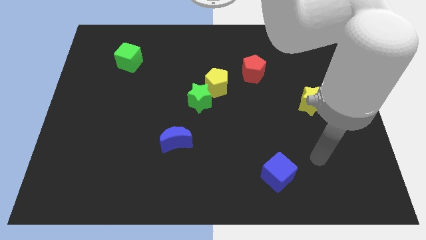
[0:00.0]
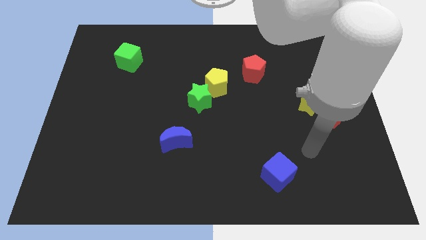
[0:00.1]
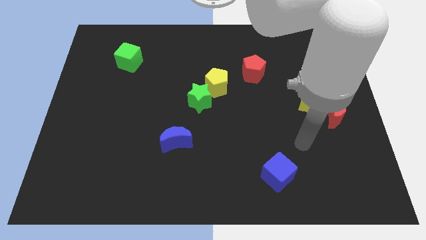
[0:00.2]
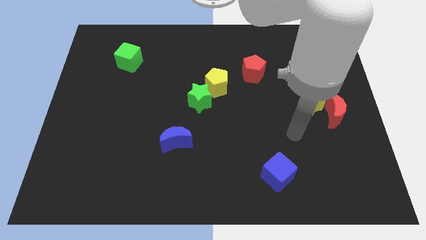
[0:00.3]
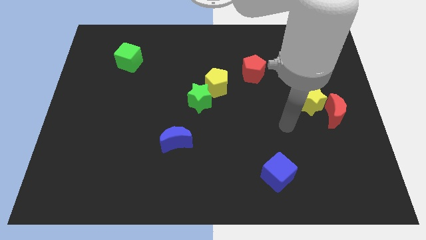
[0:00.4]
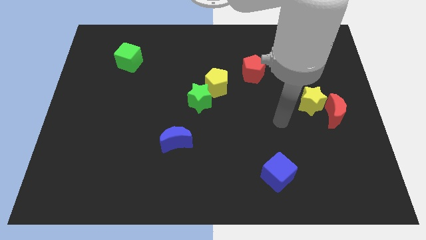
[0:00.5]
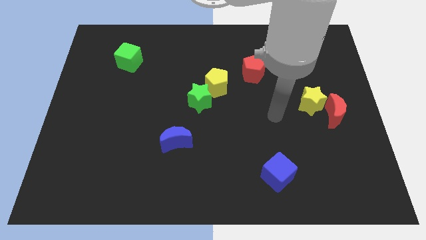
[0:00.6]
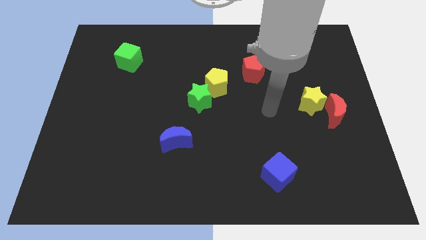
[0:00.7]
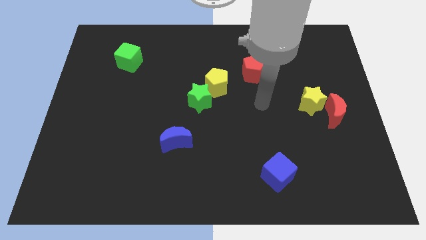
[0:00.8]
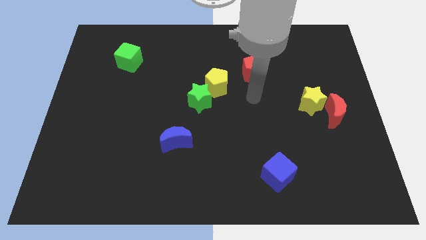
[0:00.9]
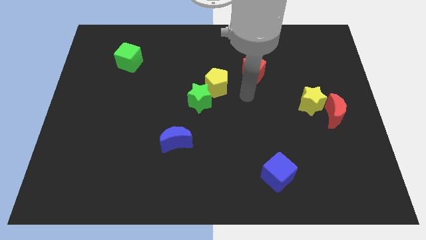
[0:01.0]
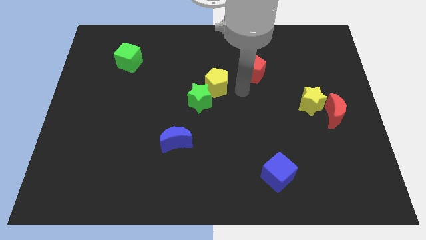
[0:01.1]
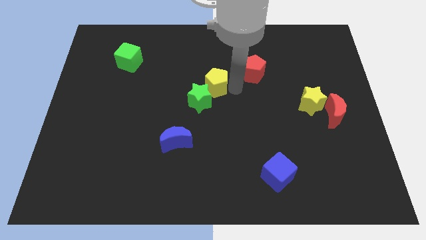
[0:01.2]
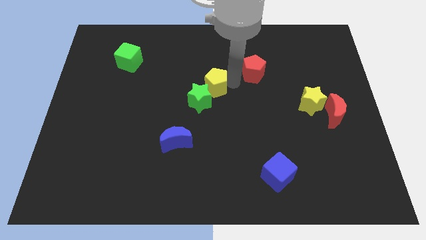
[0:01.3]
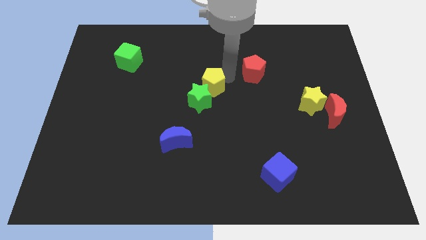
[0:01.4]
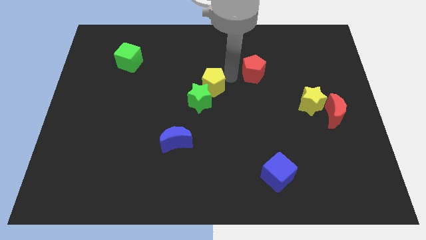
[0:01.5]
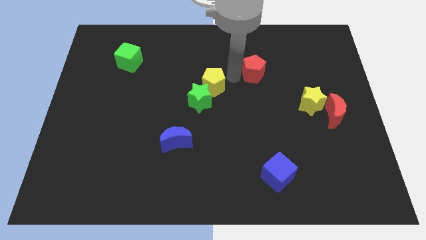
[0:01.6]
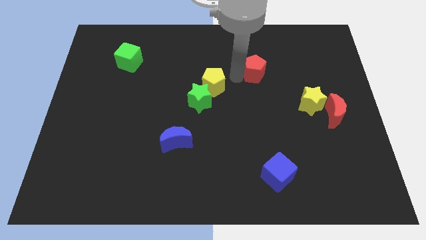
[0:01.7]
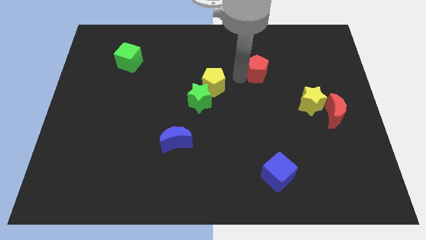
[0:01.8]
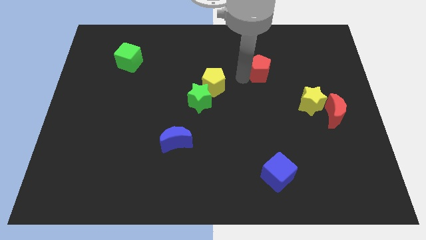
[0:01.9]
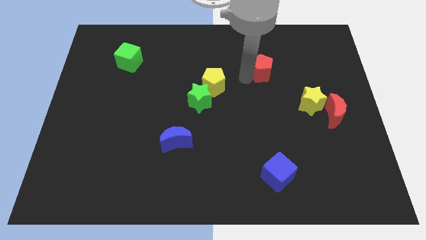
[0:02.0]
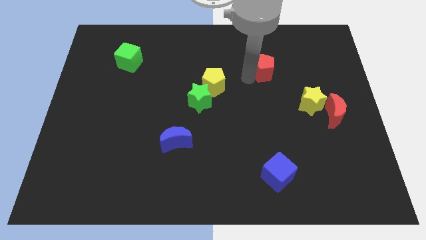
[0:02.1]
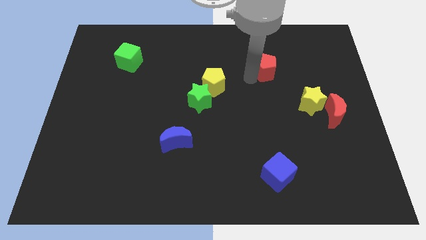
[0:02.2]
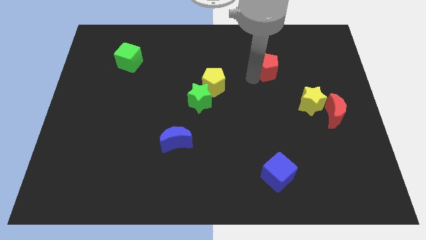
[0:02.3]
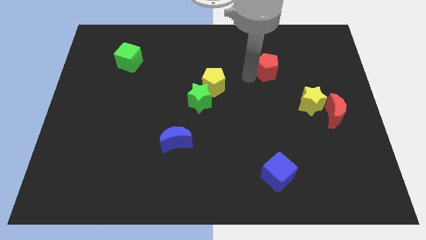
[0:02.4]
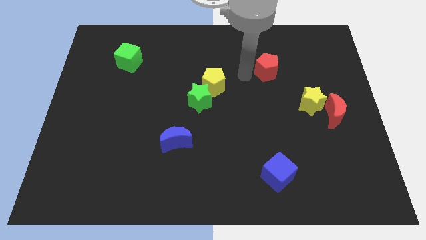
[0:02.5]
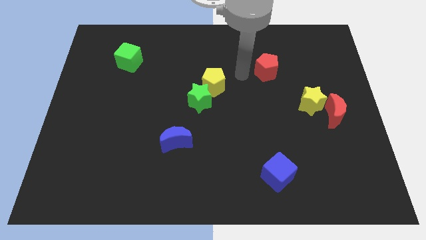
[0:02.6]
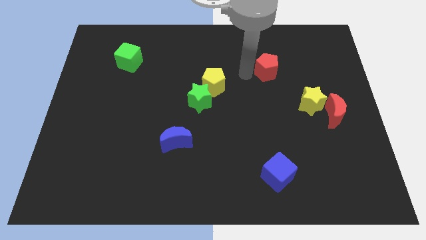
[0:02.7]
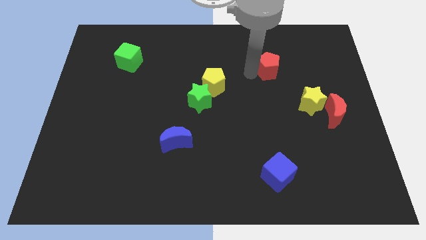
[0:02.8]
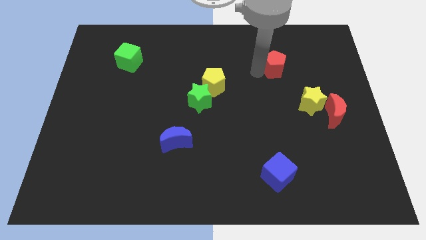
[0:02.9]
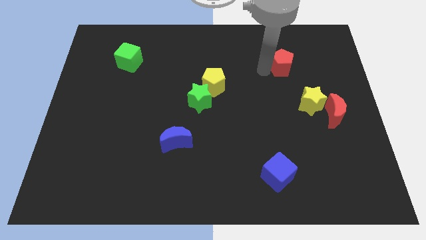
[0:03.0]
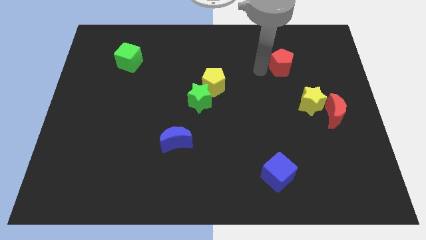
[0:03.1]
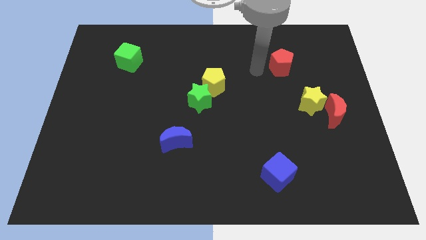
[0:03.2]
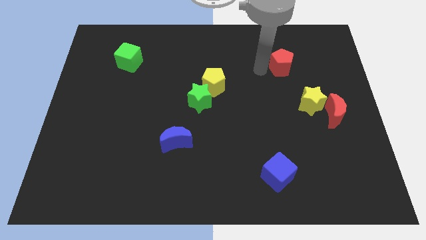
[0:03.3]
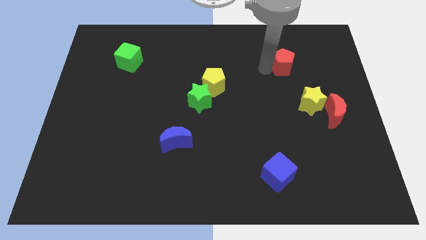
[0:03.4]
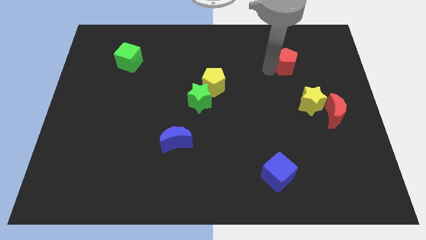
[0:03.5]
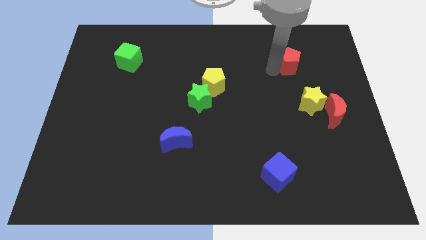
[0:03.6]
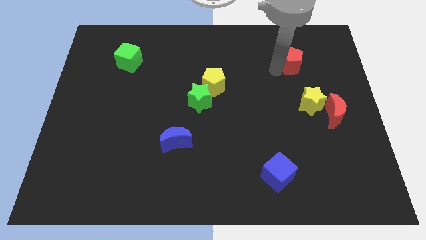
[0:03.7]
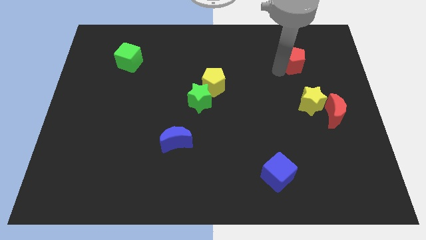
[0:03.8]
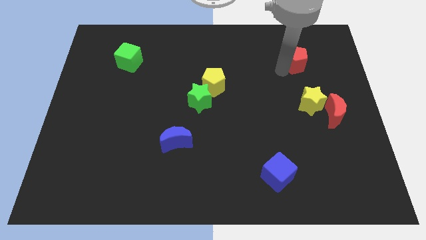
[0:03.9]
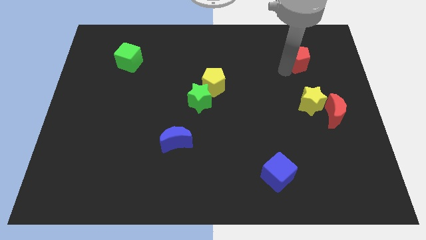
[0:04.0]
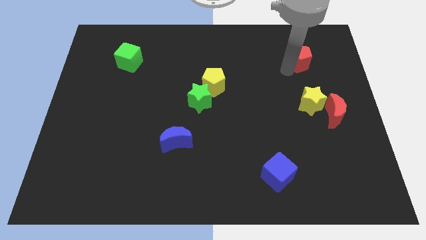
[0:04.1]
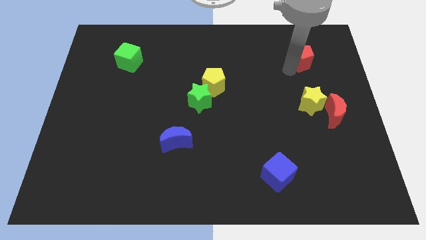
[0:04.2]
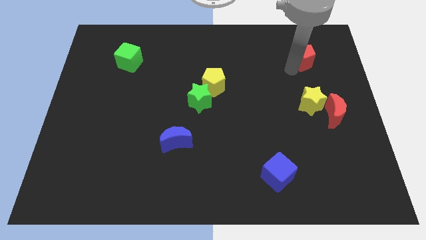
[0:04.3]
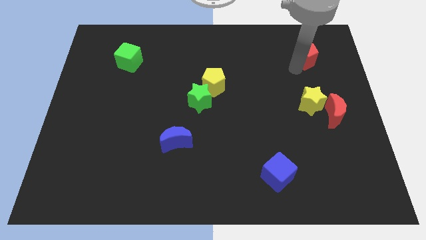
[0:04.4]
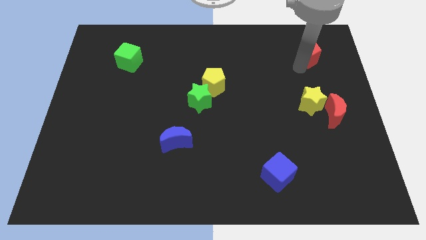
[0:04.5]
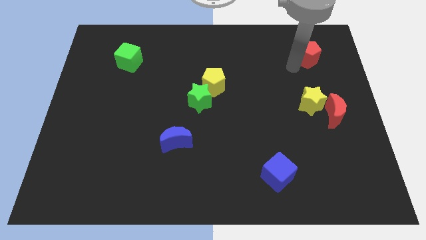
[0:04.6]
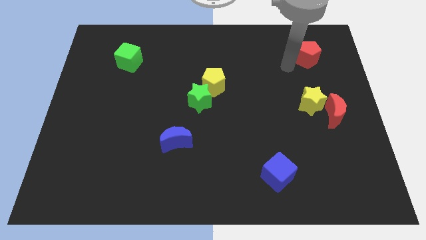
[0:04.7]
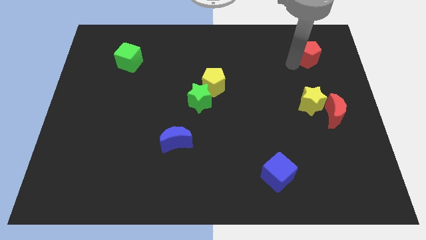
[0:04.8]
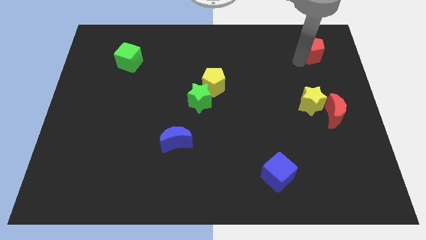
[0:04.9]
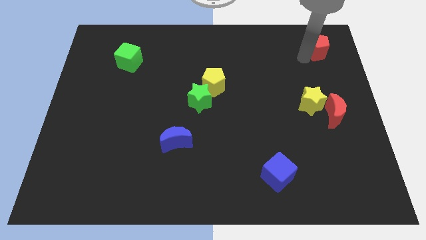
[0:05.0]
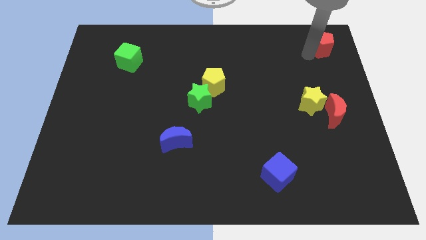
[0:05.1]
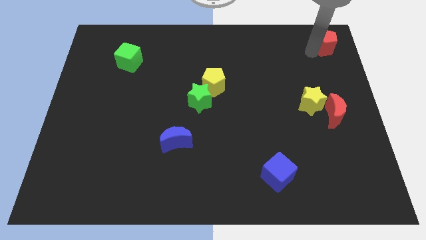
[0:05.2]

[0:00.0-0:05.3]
push the red pentagon to the top right of the board

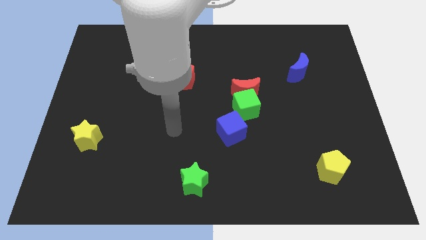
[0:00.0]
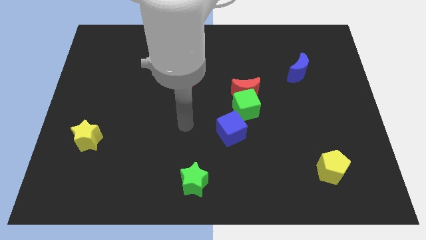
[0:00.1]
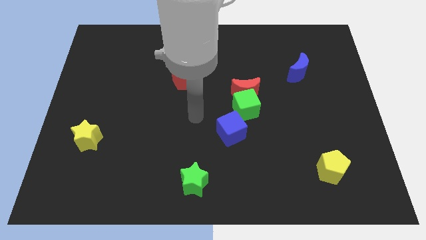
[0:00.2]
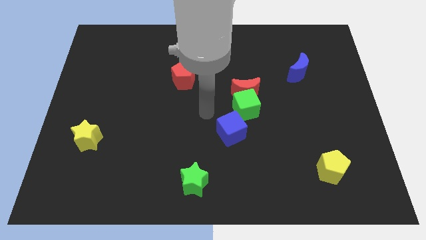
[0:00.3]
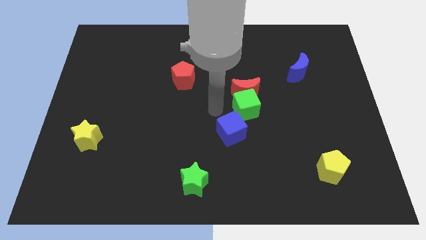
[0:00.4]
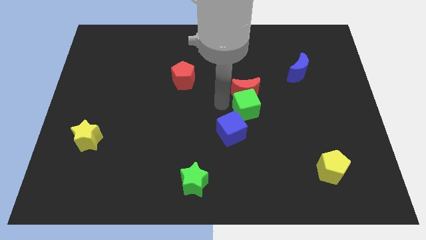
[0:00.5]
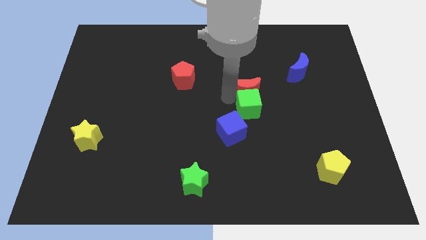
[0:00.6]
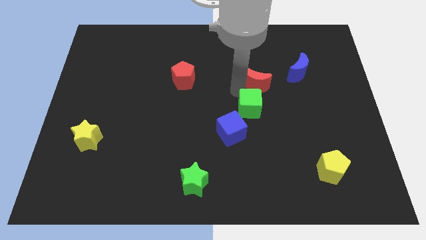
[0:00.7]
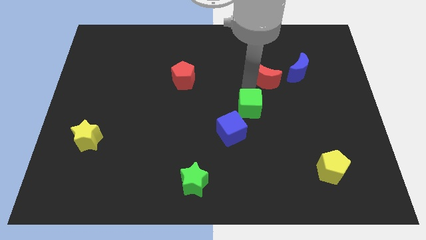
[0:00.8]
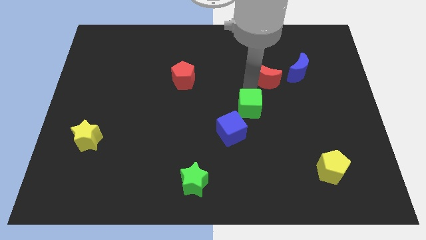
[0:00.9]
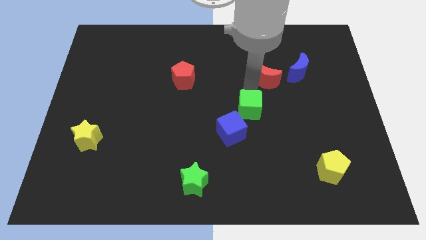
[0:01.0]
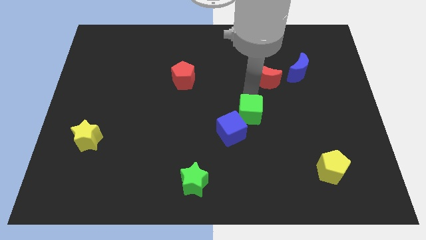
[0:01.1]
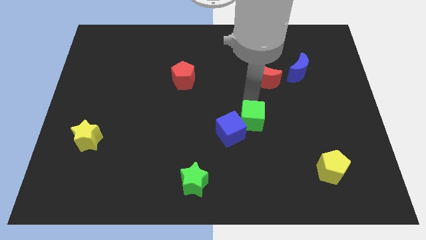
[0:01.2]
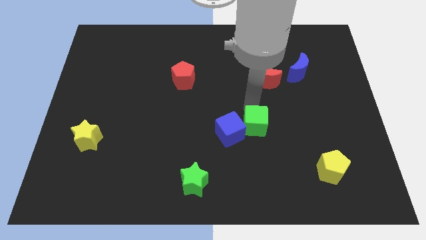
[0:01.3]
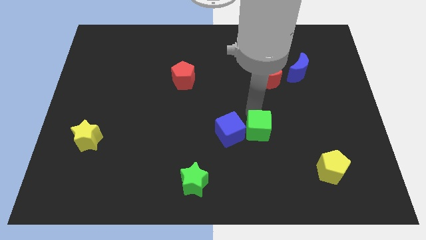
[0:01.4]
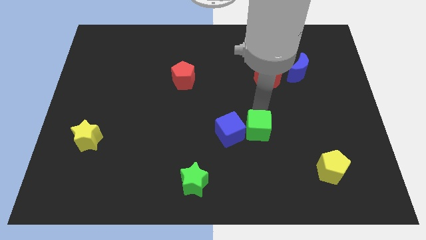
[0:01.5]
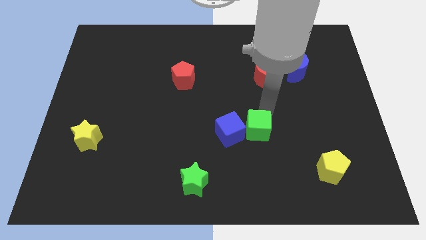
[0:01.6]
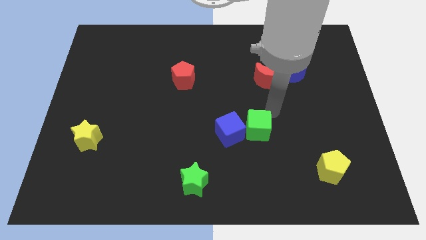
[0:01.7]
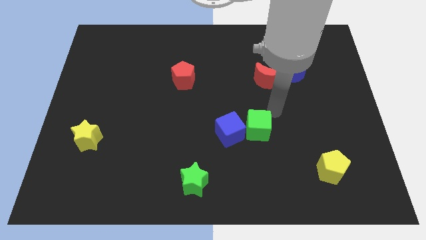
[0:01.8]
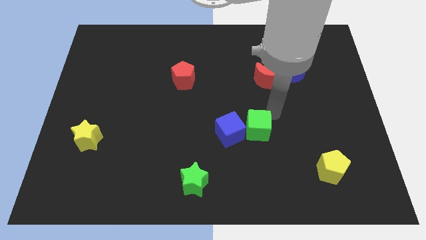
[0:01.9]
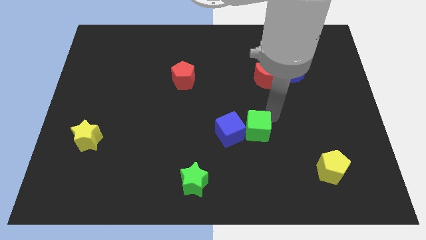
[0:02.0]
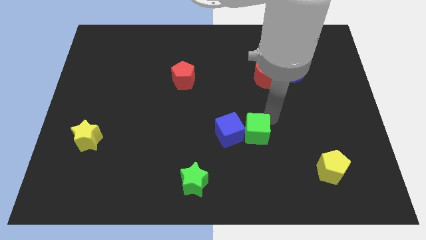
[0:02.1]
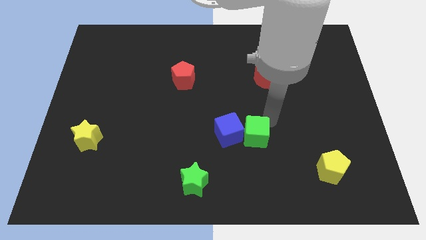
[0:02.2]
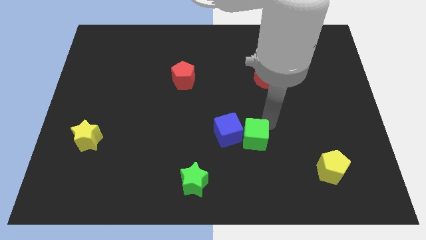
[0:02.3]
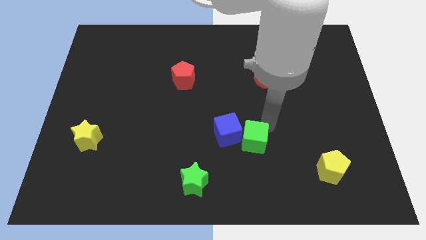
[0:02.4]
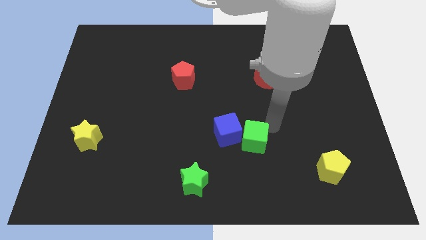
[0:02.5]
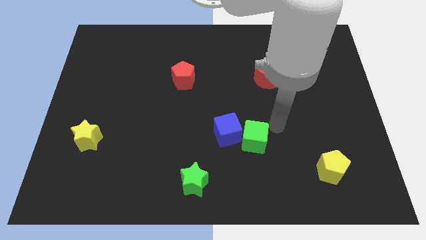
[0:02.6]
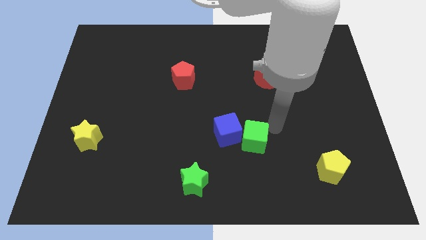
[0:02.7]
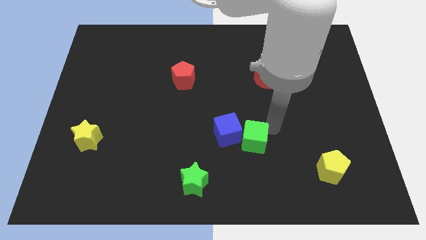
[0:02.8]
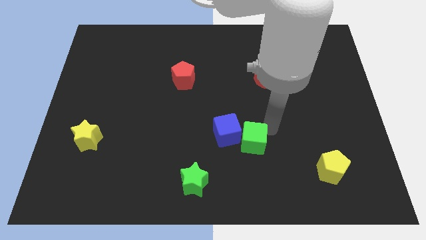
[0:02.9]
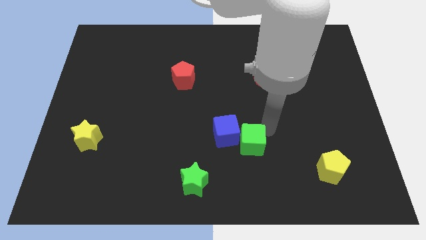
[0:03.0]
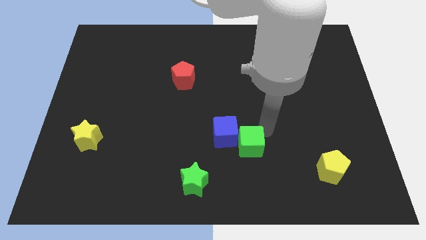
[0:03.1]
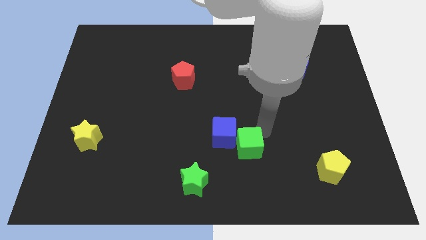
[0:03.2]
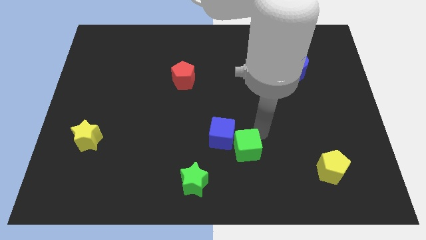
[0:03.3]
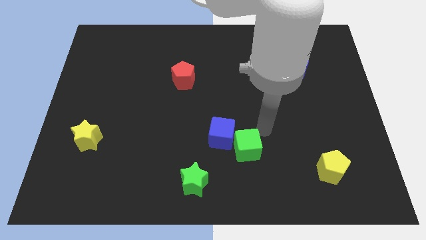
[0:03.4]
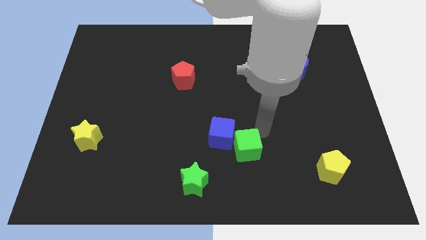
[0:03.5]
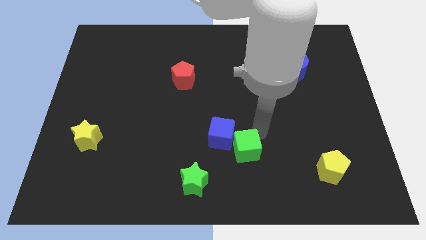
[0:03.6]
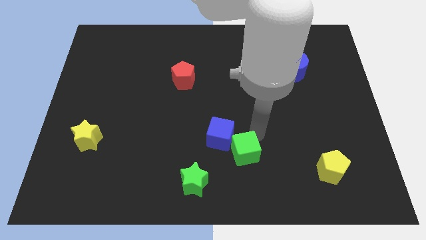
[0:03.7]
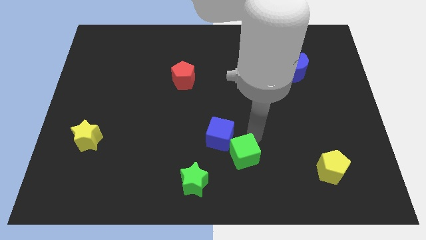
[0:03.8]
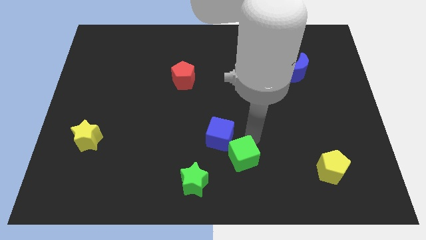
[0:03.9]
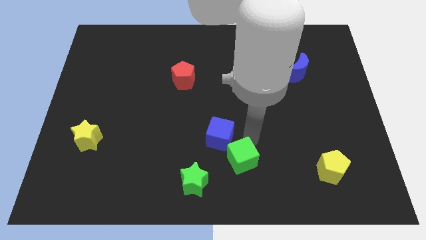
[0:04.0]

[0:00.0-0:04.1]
move the green cube to the bottom side
